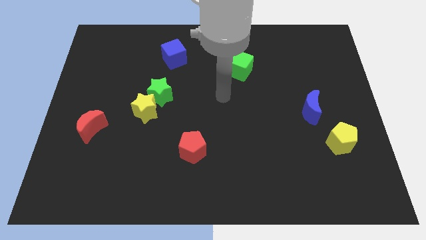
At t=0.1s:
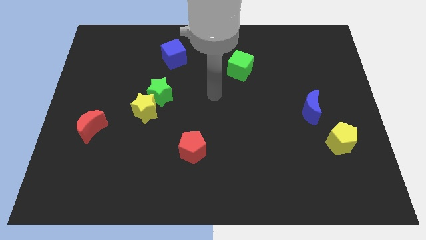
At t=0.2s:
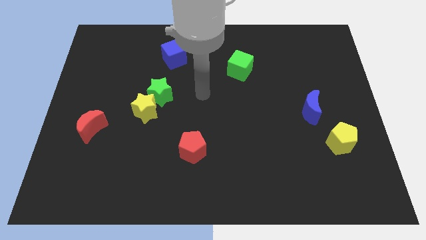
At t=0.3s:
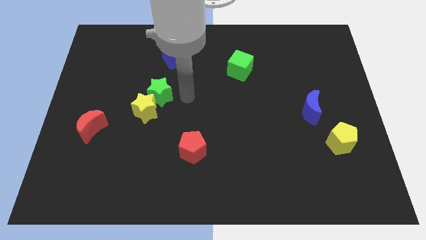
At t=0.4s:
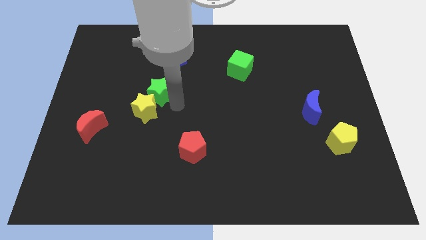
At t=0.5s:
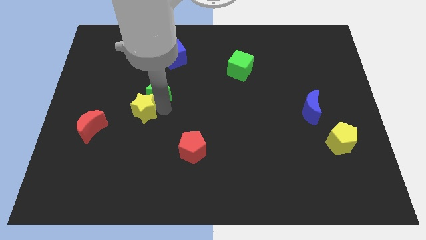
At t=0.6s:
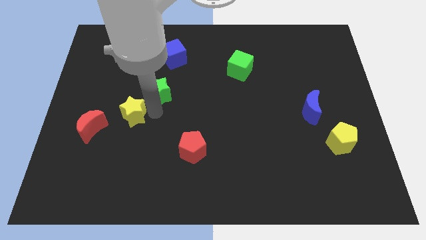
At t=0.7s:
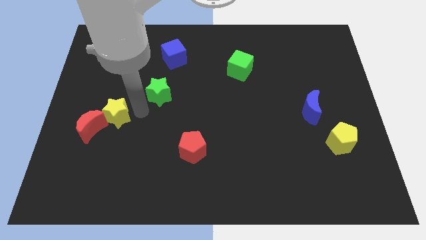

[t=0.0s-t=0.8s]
pull the green star apart from the yellow star

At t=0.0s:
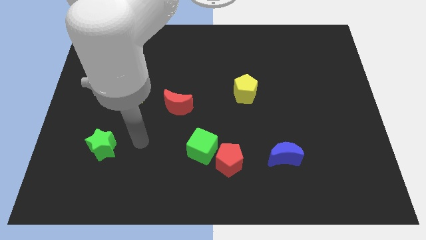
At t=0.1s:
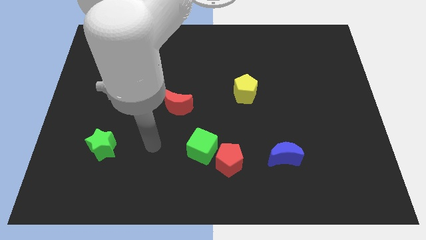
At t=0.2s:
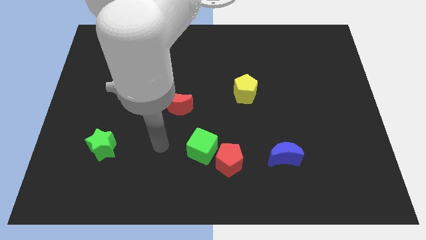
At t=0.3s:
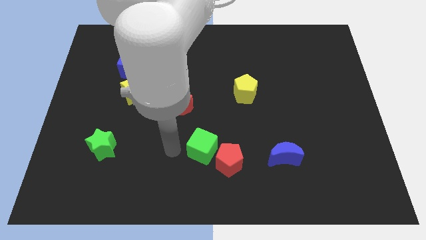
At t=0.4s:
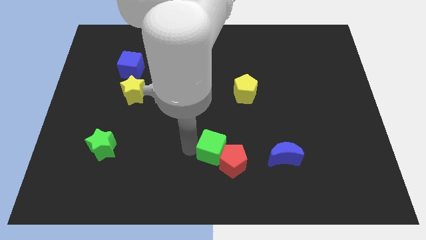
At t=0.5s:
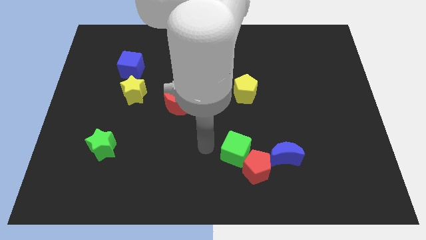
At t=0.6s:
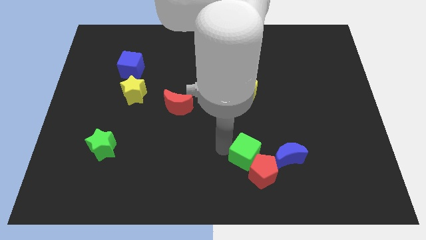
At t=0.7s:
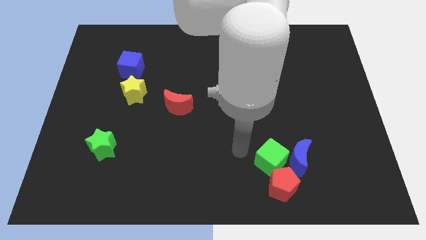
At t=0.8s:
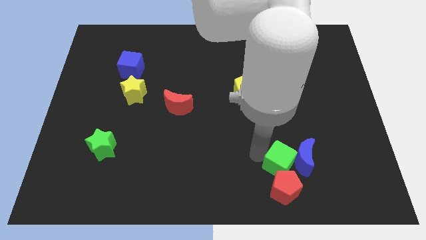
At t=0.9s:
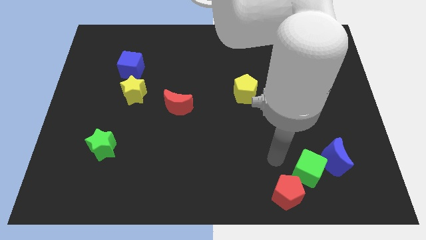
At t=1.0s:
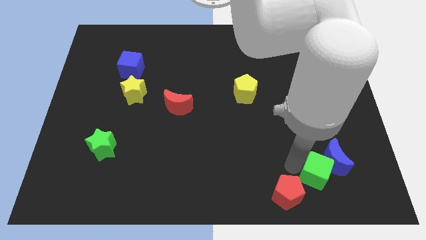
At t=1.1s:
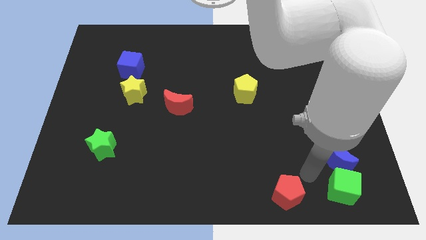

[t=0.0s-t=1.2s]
pull the red pentagon apart from the green cube

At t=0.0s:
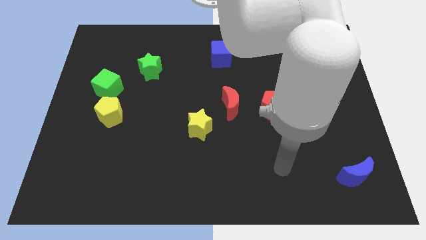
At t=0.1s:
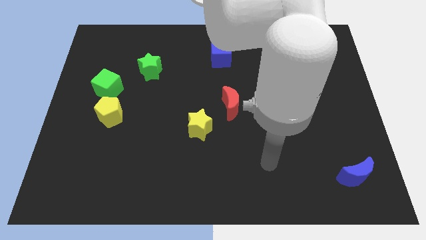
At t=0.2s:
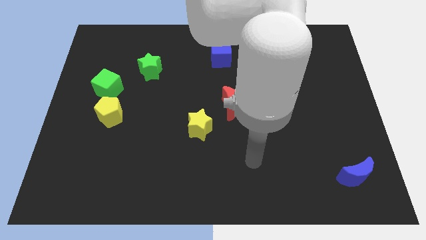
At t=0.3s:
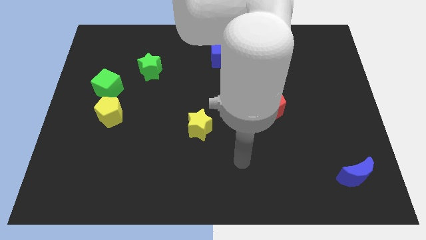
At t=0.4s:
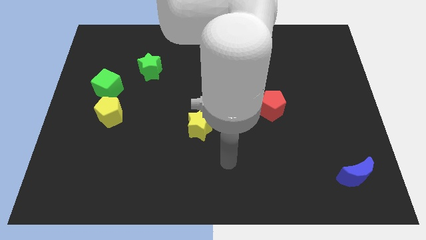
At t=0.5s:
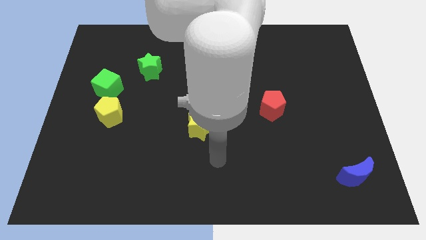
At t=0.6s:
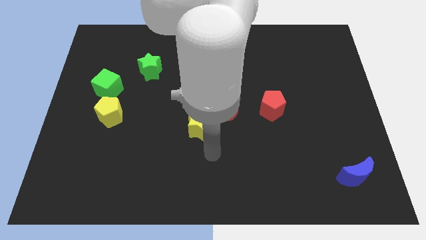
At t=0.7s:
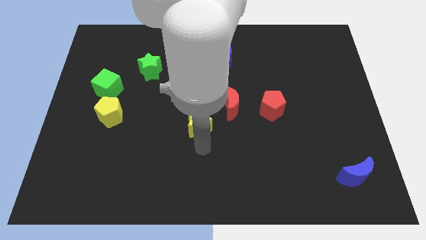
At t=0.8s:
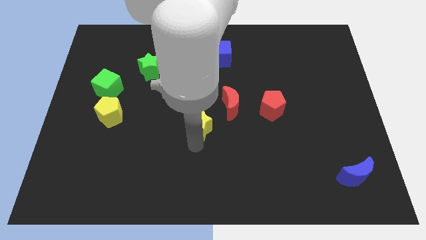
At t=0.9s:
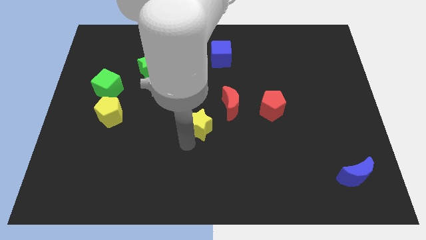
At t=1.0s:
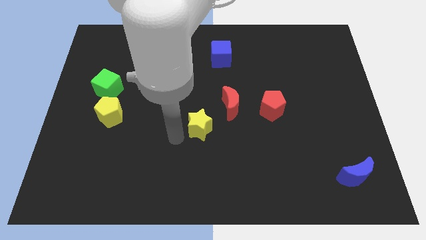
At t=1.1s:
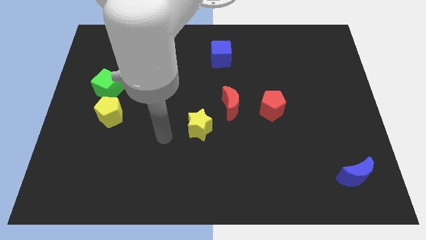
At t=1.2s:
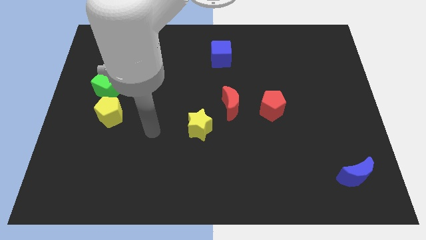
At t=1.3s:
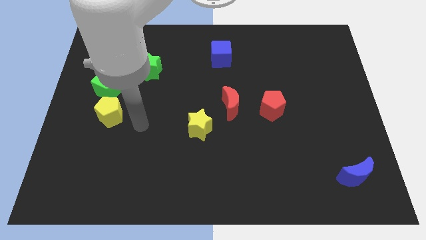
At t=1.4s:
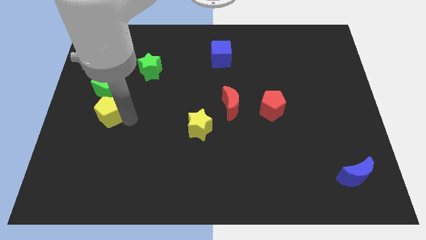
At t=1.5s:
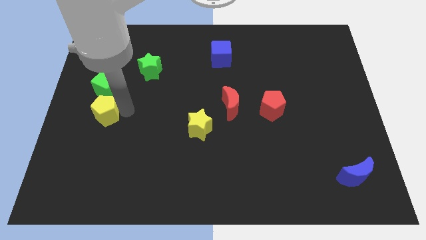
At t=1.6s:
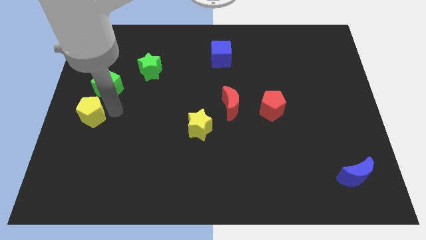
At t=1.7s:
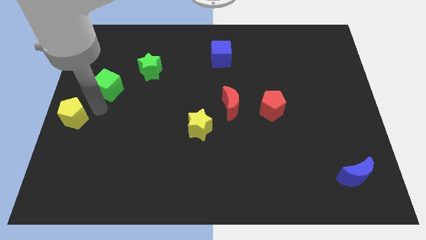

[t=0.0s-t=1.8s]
move the green cube away from the yellow pentagon

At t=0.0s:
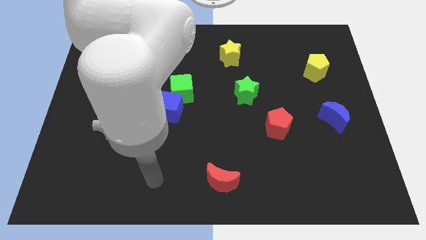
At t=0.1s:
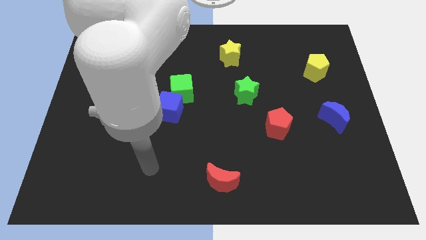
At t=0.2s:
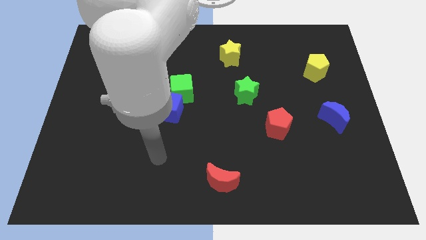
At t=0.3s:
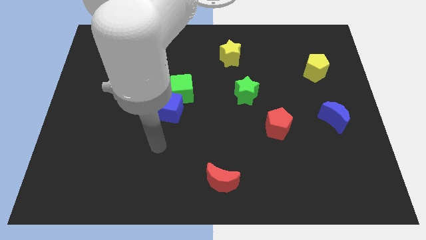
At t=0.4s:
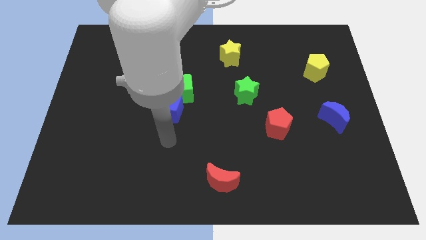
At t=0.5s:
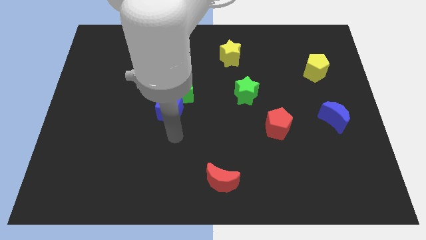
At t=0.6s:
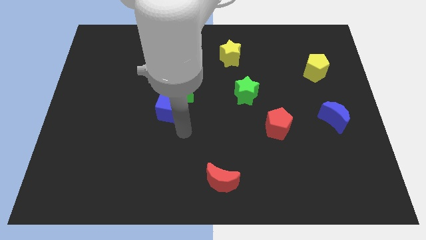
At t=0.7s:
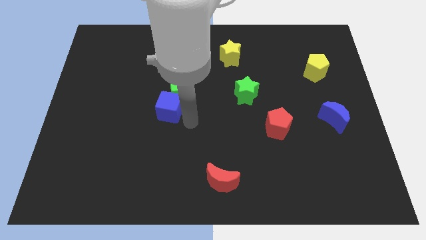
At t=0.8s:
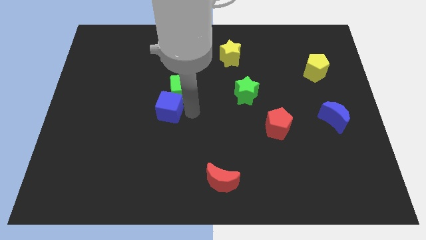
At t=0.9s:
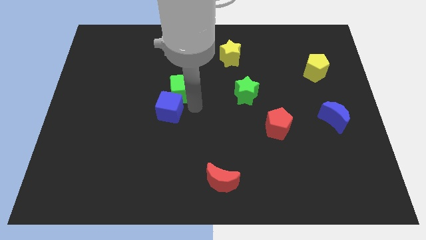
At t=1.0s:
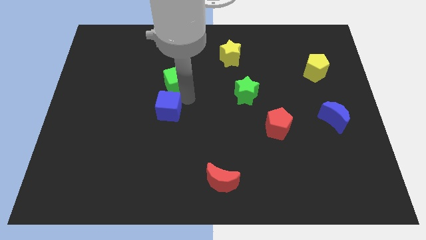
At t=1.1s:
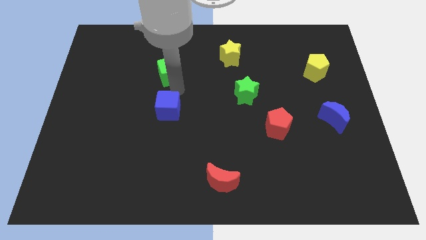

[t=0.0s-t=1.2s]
separate the blue cube from the green cube

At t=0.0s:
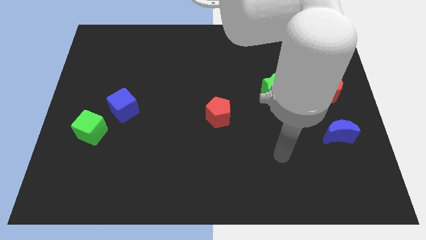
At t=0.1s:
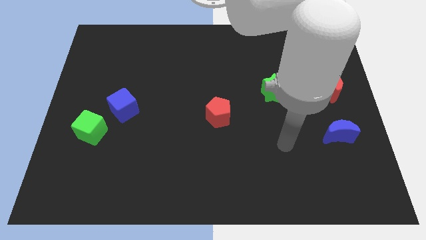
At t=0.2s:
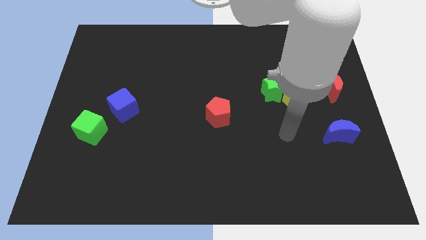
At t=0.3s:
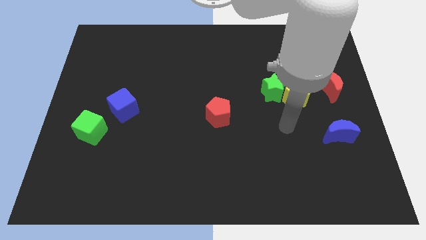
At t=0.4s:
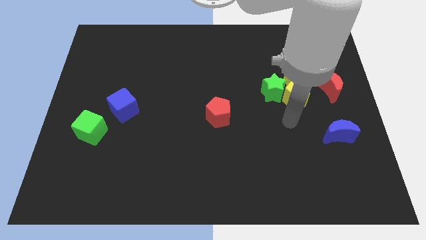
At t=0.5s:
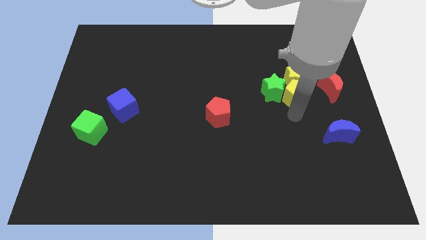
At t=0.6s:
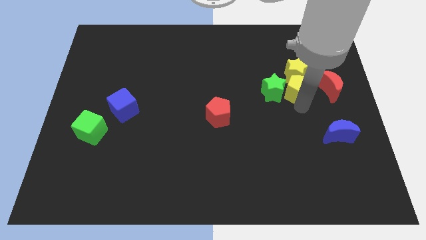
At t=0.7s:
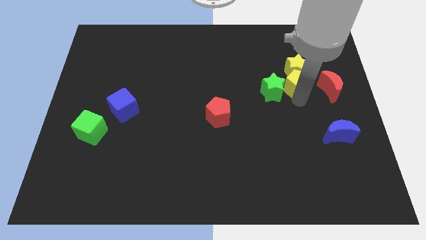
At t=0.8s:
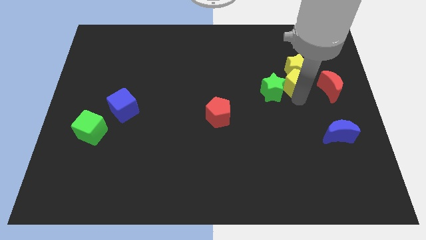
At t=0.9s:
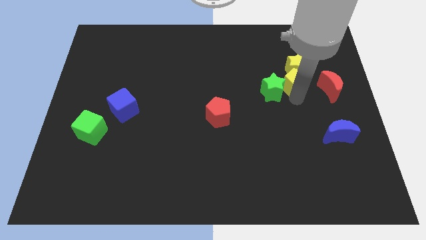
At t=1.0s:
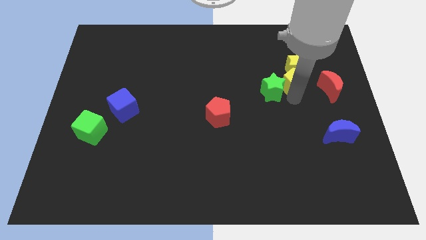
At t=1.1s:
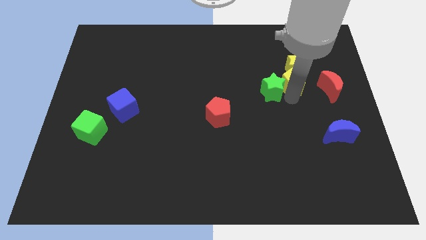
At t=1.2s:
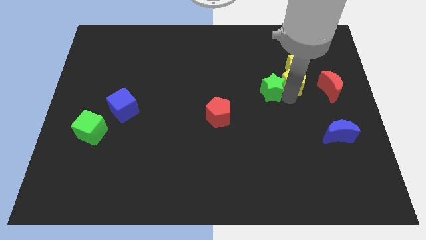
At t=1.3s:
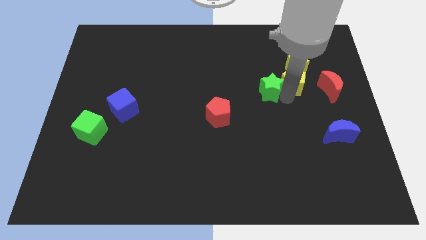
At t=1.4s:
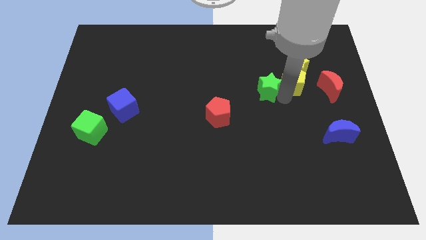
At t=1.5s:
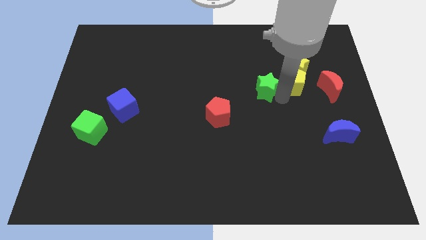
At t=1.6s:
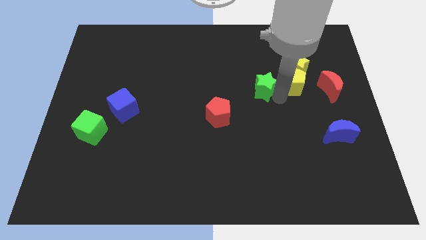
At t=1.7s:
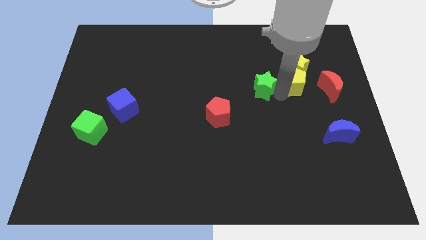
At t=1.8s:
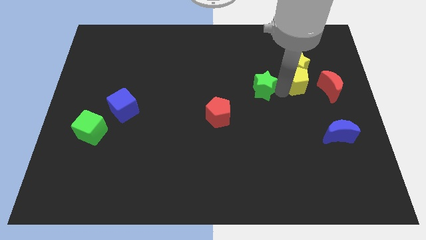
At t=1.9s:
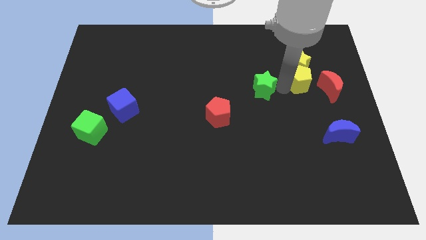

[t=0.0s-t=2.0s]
separate the green star from the yellow pentagon and yellow star

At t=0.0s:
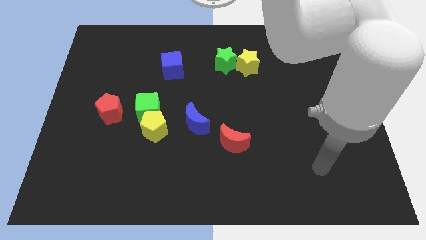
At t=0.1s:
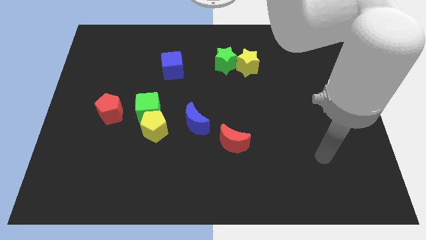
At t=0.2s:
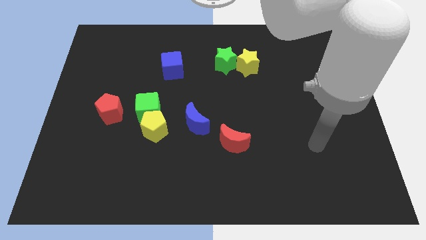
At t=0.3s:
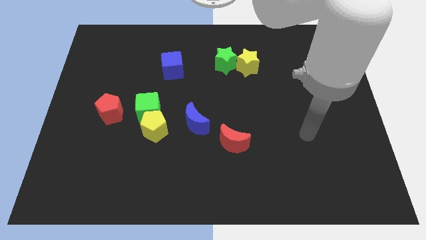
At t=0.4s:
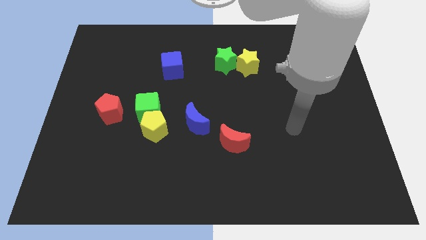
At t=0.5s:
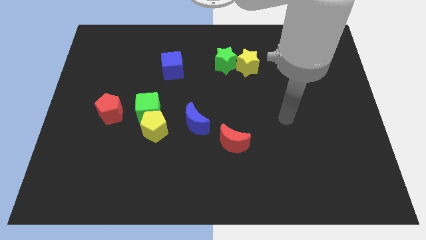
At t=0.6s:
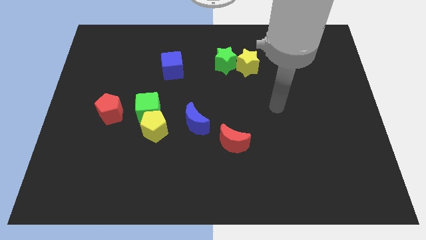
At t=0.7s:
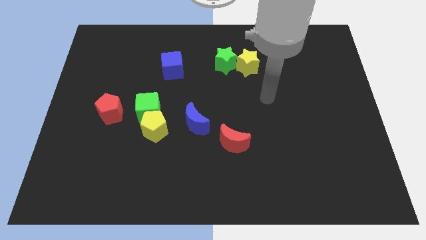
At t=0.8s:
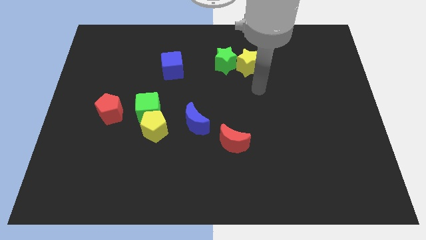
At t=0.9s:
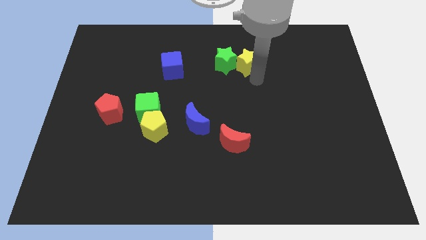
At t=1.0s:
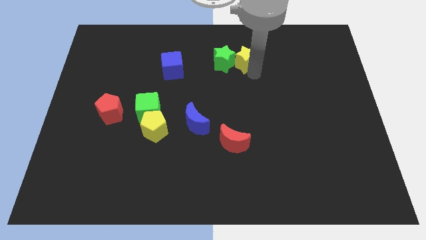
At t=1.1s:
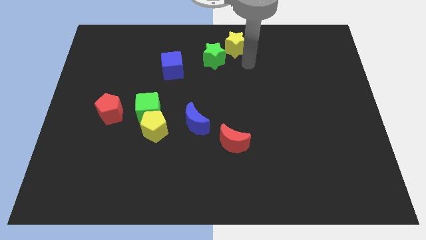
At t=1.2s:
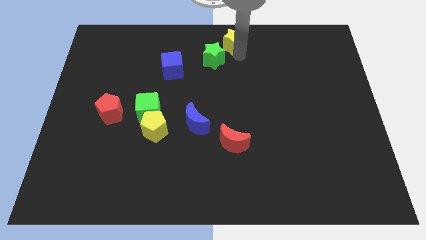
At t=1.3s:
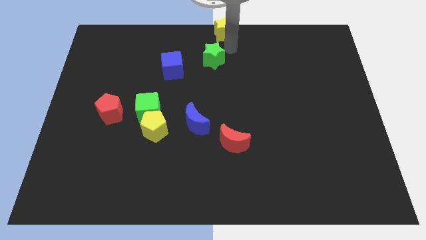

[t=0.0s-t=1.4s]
separate the green star from the yellow star

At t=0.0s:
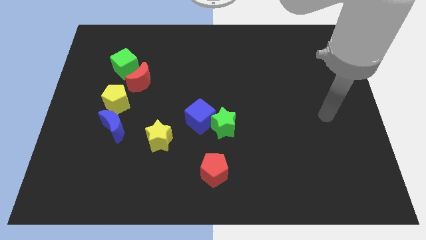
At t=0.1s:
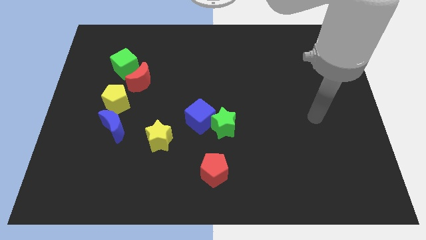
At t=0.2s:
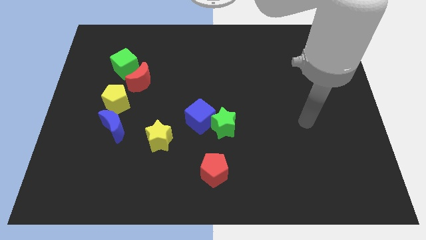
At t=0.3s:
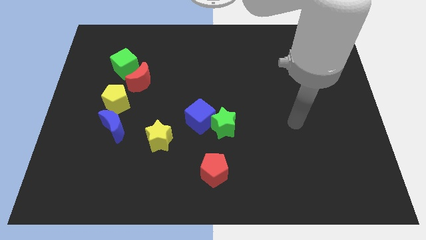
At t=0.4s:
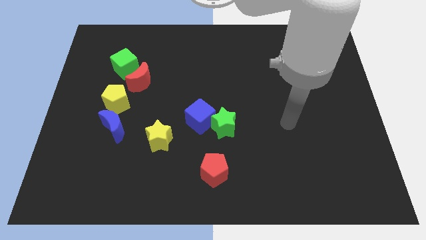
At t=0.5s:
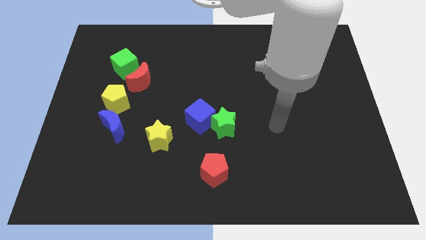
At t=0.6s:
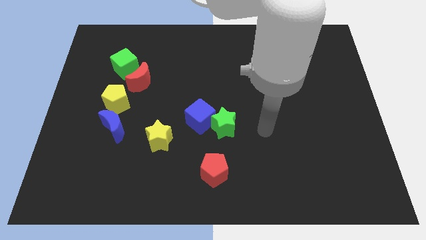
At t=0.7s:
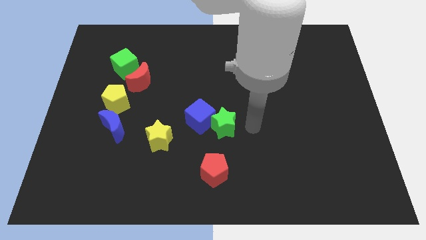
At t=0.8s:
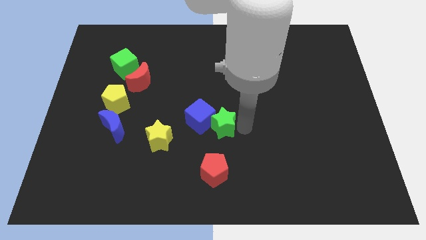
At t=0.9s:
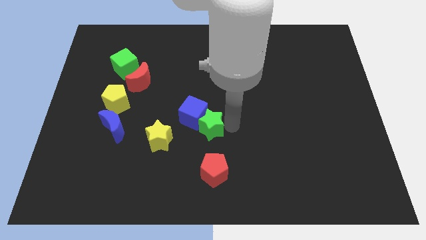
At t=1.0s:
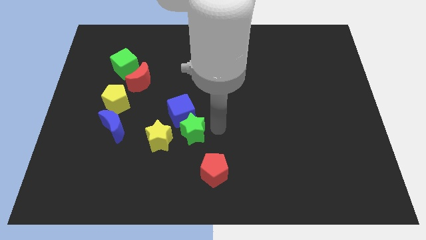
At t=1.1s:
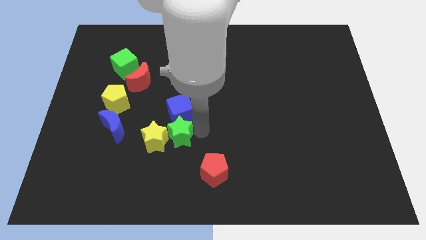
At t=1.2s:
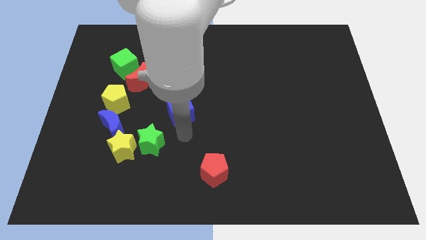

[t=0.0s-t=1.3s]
move the blue cube away from the green star
